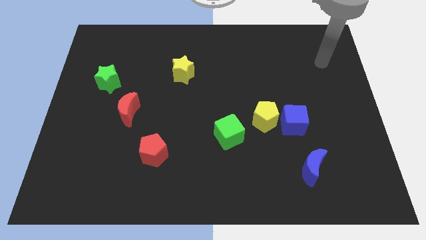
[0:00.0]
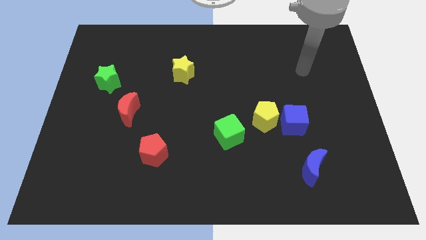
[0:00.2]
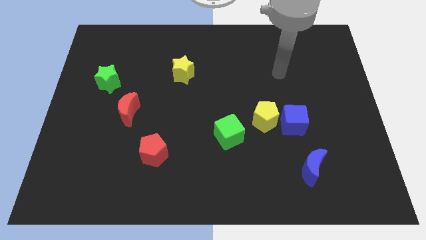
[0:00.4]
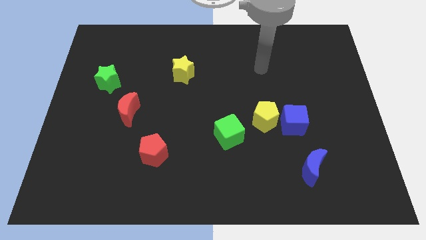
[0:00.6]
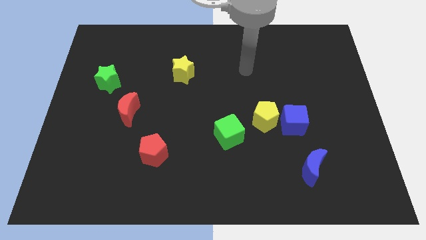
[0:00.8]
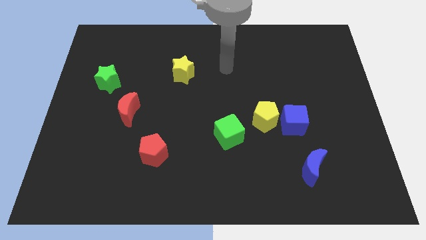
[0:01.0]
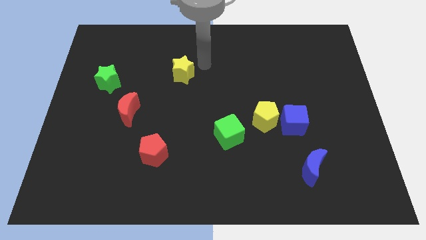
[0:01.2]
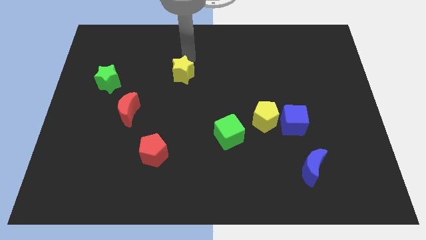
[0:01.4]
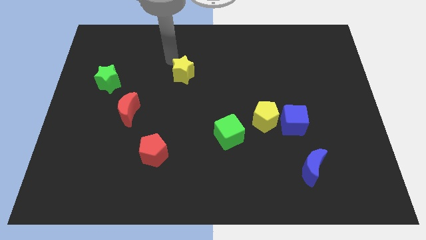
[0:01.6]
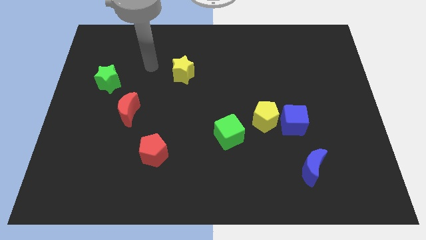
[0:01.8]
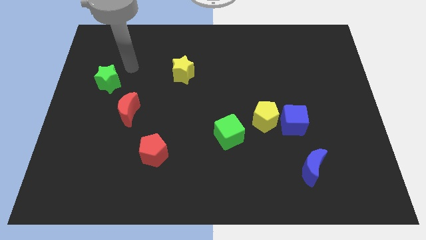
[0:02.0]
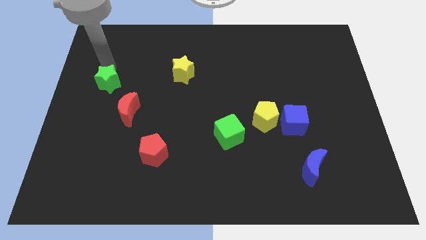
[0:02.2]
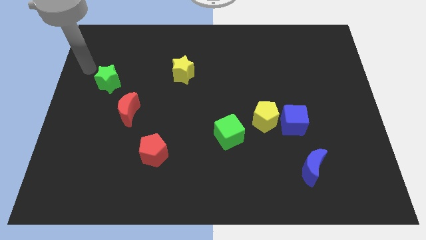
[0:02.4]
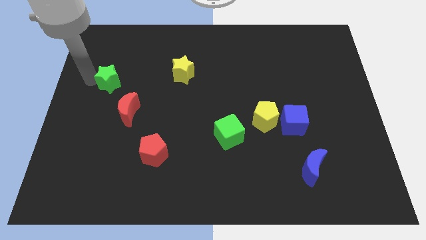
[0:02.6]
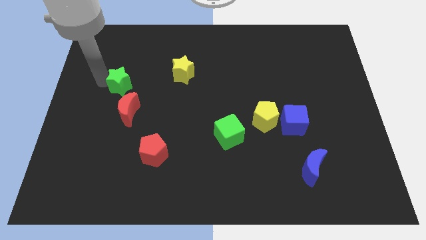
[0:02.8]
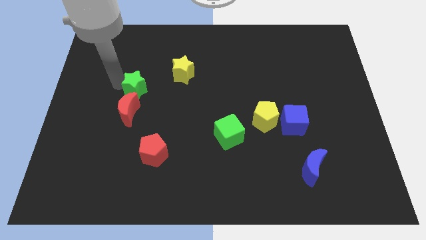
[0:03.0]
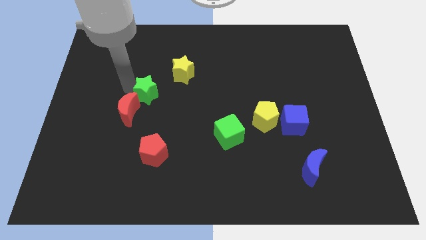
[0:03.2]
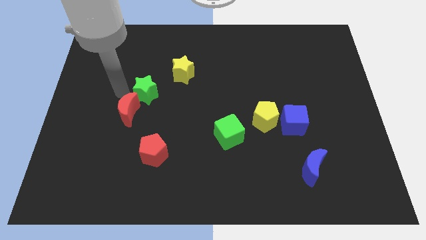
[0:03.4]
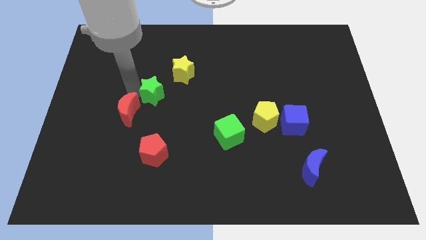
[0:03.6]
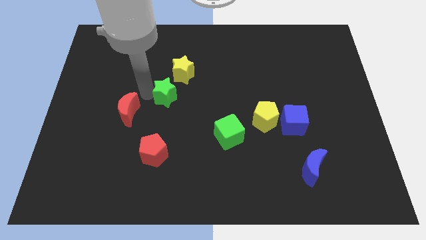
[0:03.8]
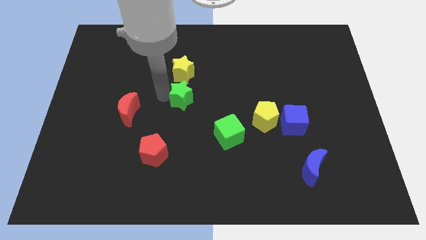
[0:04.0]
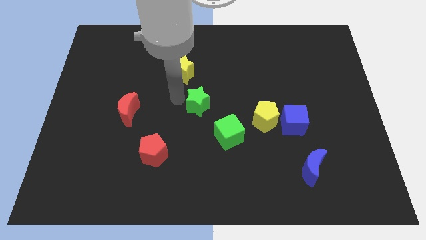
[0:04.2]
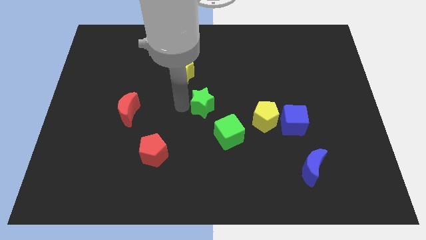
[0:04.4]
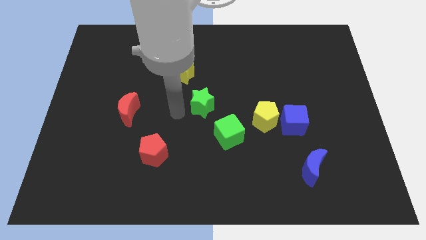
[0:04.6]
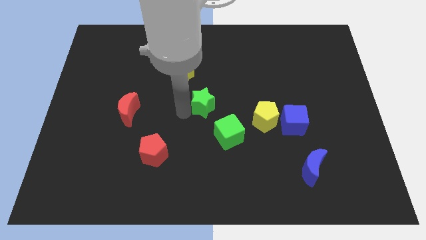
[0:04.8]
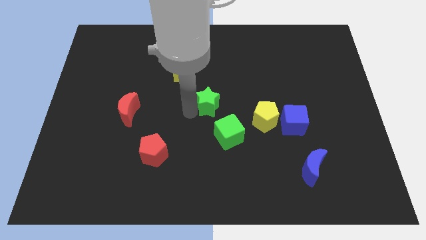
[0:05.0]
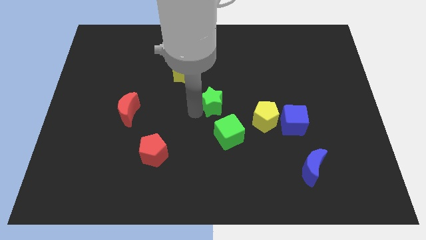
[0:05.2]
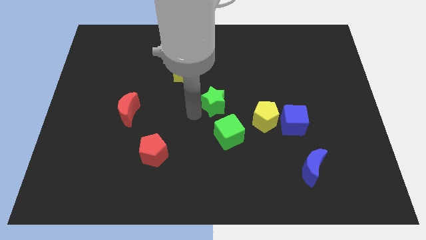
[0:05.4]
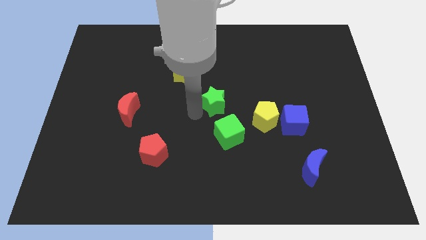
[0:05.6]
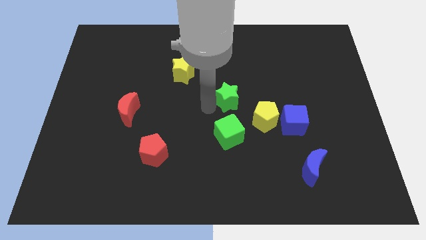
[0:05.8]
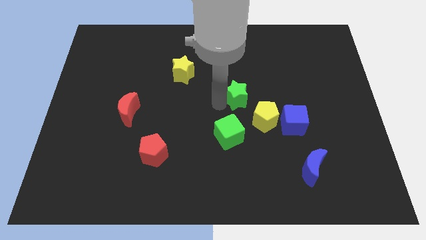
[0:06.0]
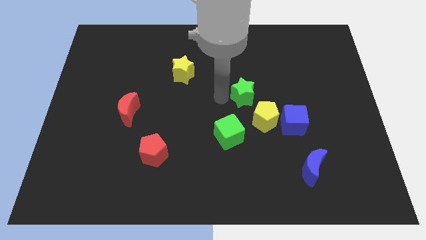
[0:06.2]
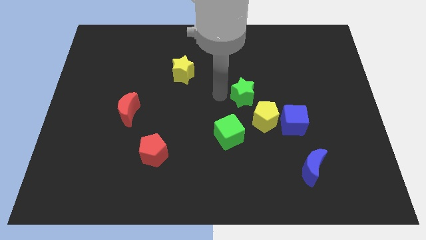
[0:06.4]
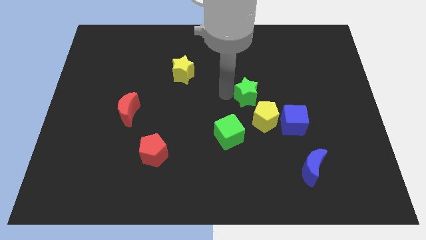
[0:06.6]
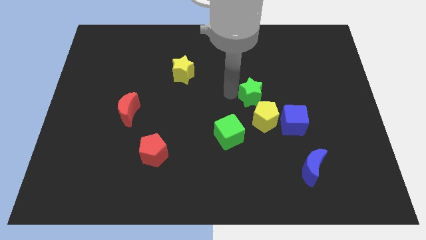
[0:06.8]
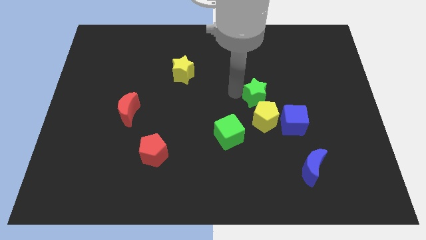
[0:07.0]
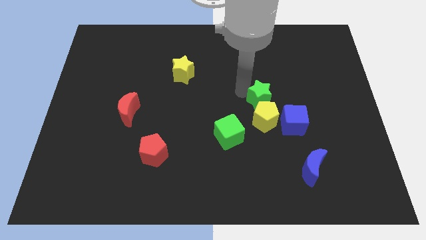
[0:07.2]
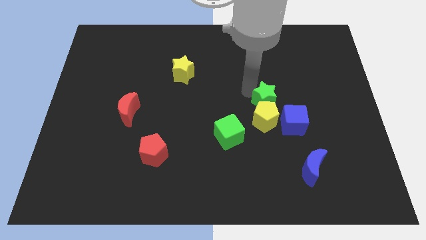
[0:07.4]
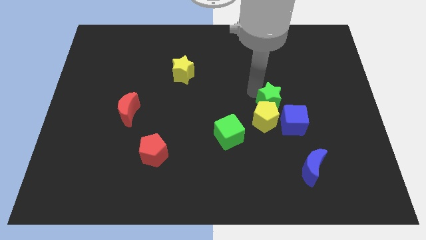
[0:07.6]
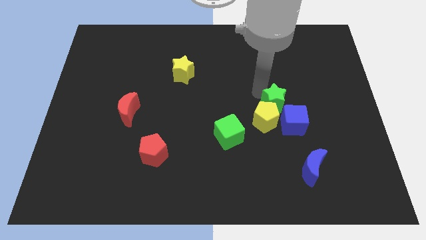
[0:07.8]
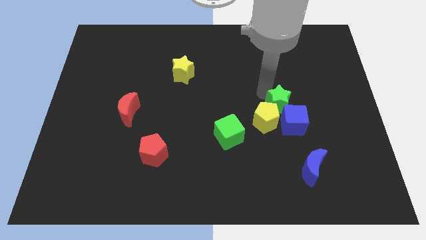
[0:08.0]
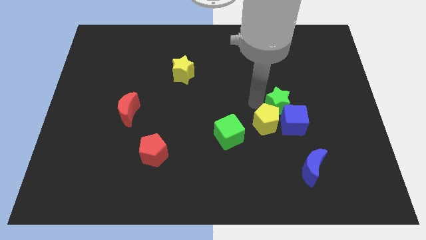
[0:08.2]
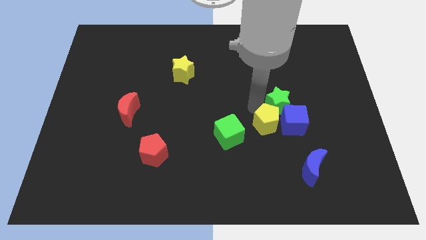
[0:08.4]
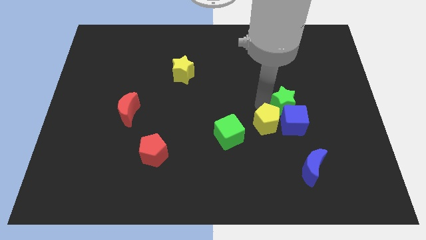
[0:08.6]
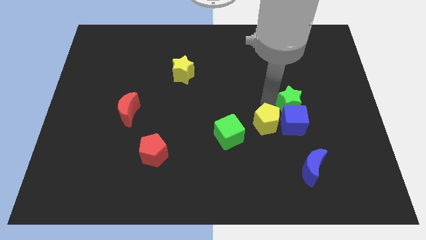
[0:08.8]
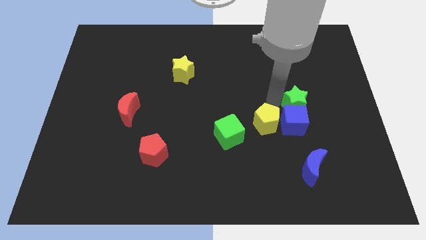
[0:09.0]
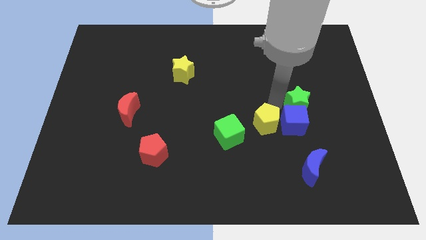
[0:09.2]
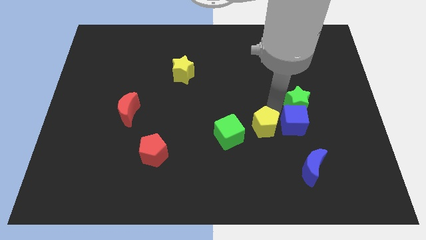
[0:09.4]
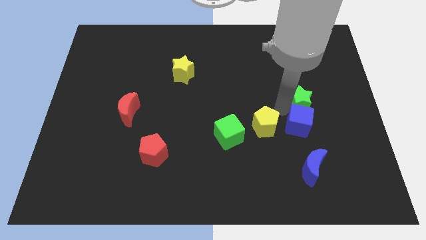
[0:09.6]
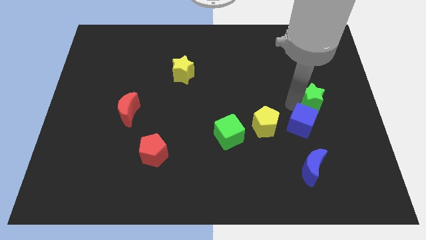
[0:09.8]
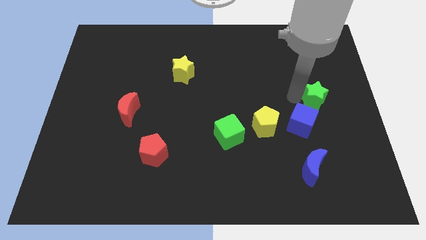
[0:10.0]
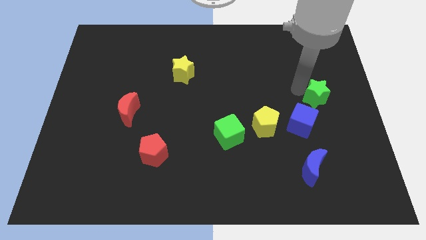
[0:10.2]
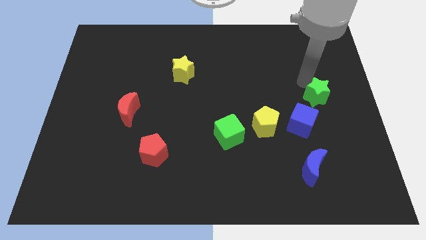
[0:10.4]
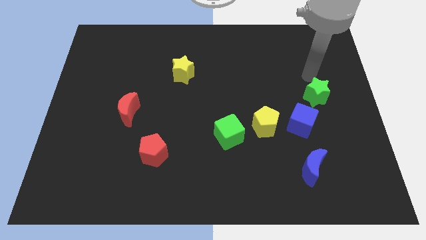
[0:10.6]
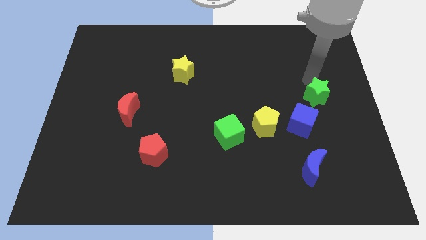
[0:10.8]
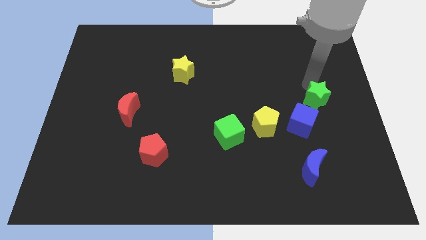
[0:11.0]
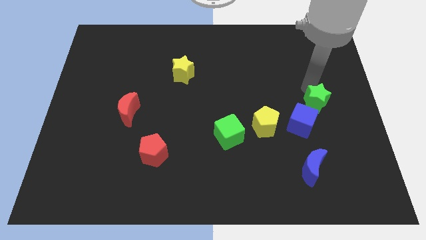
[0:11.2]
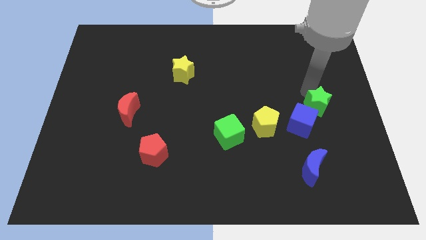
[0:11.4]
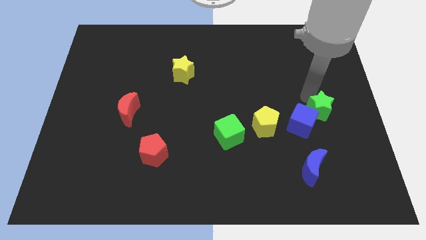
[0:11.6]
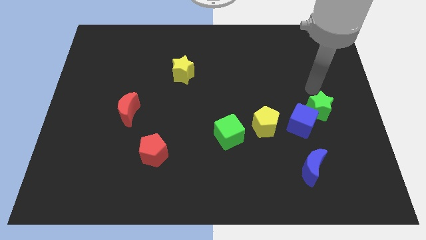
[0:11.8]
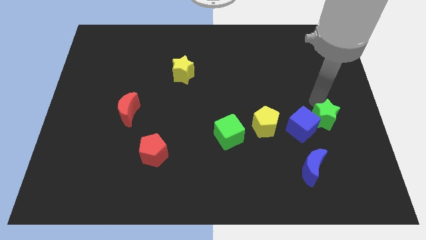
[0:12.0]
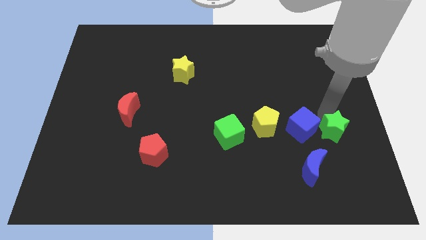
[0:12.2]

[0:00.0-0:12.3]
slide the green star to the top right of the blue moon

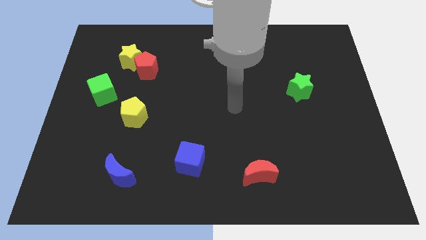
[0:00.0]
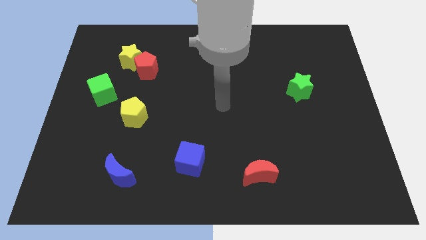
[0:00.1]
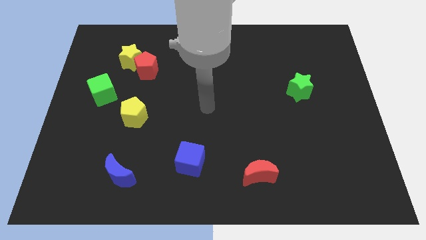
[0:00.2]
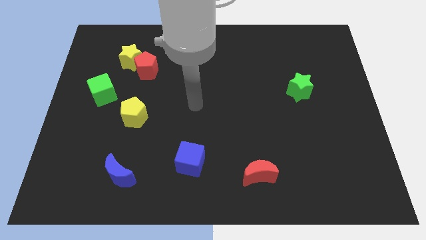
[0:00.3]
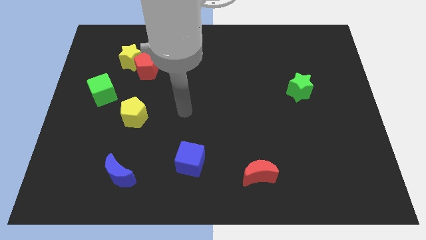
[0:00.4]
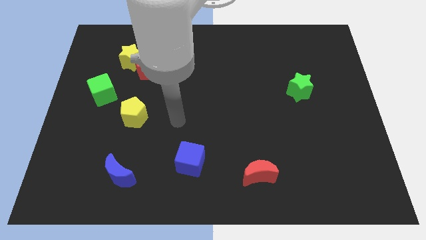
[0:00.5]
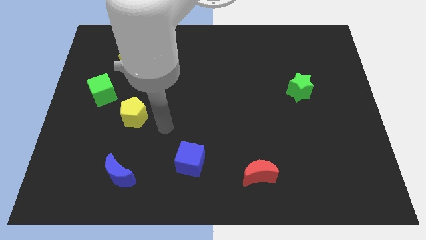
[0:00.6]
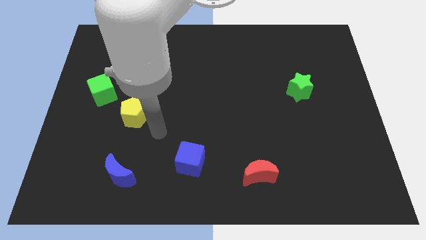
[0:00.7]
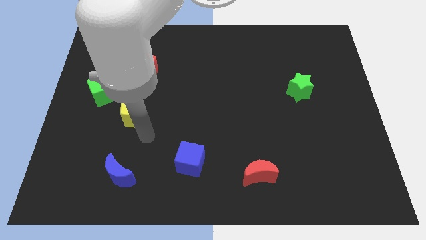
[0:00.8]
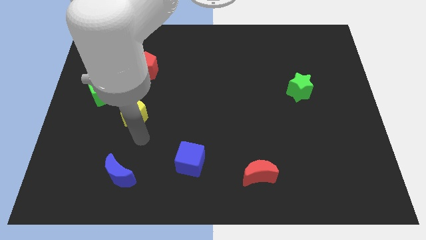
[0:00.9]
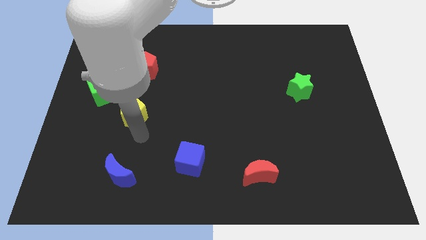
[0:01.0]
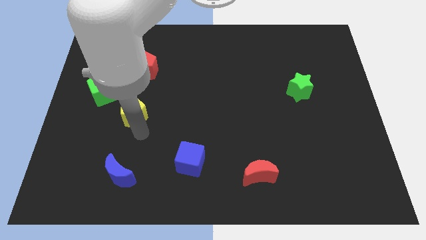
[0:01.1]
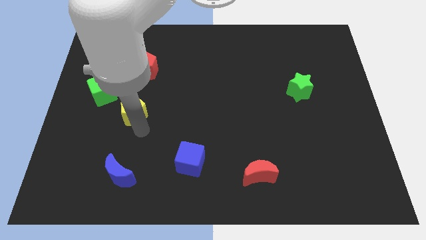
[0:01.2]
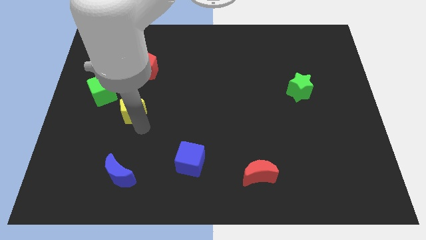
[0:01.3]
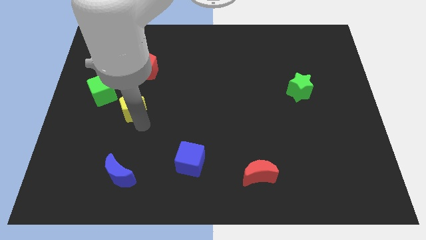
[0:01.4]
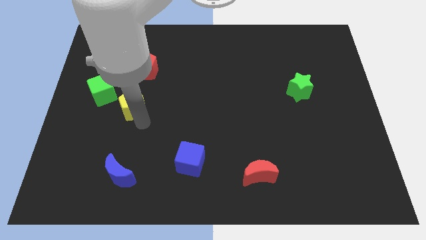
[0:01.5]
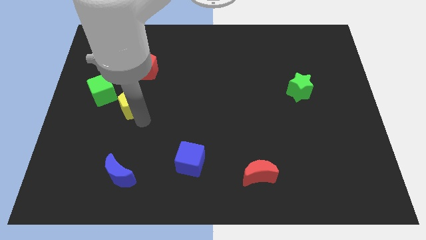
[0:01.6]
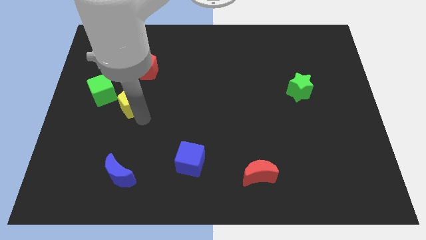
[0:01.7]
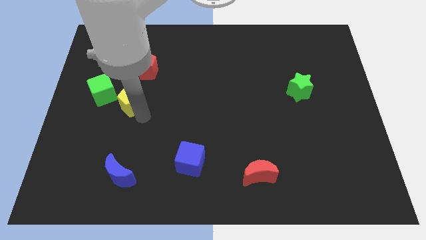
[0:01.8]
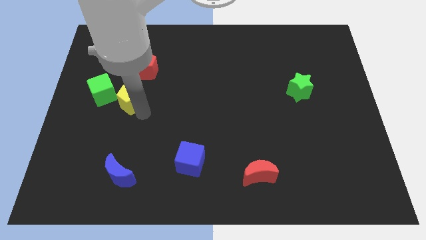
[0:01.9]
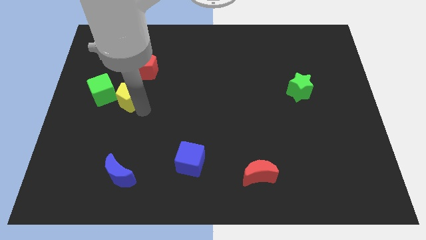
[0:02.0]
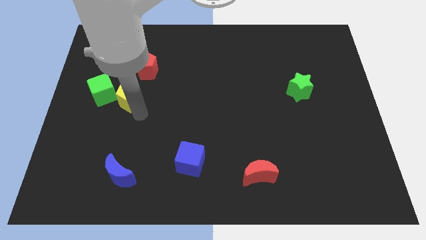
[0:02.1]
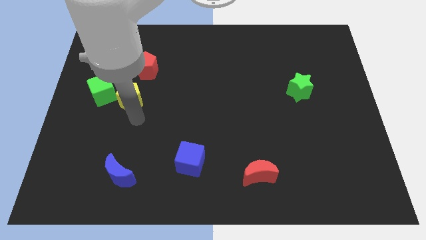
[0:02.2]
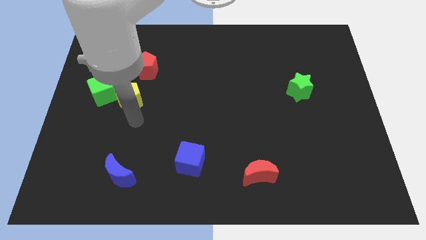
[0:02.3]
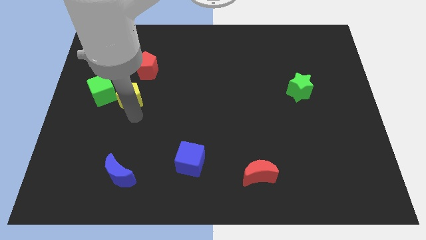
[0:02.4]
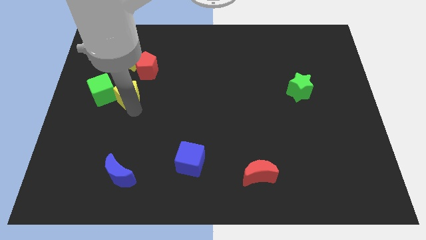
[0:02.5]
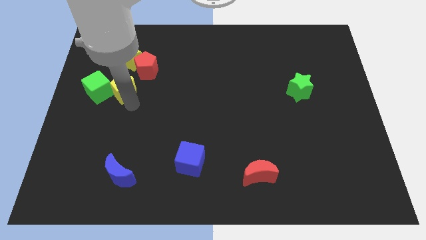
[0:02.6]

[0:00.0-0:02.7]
push the yellow pentagon to the top right of the green cube
